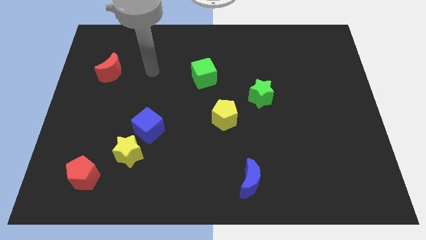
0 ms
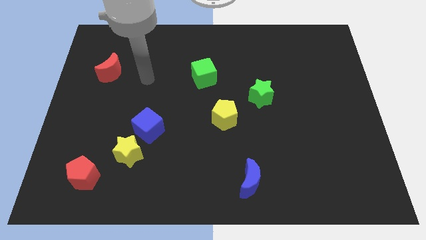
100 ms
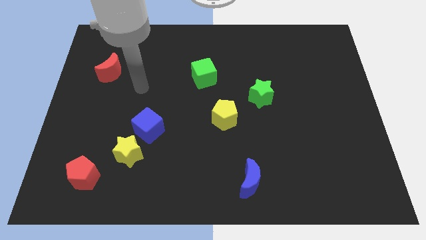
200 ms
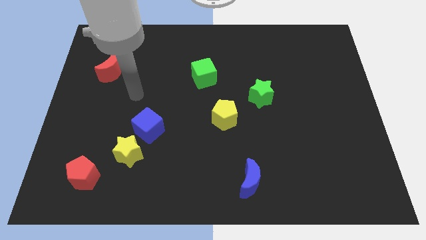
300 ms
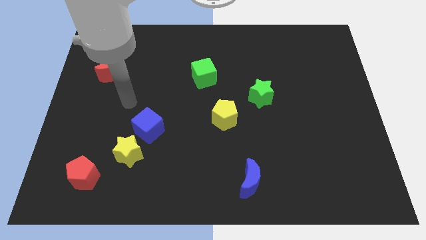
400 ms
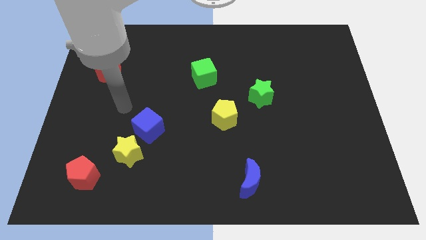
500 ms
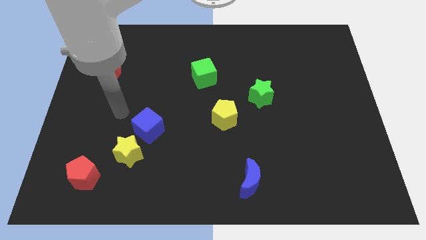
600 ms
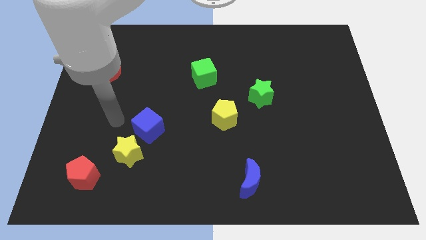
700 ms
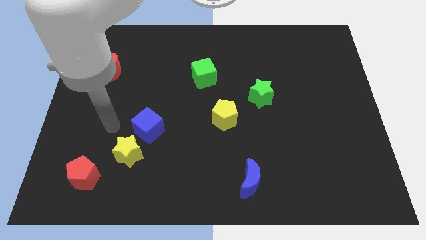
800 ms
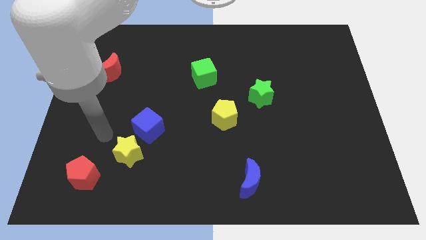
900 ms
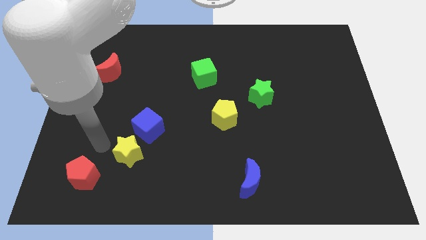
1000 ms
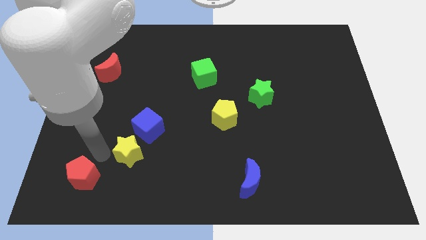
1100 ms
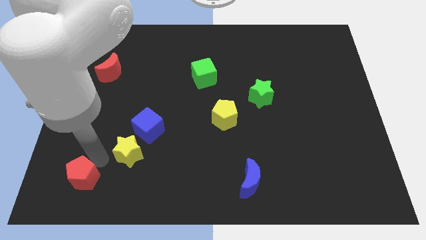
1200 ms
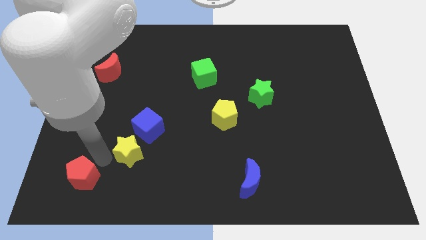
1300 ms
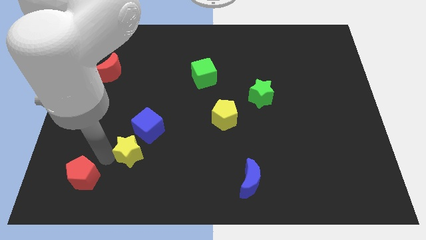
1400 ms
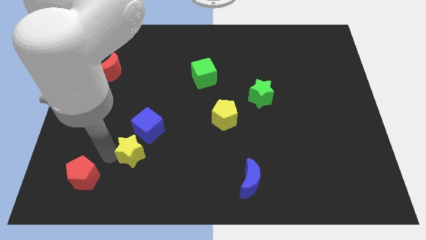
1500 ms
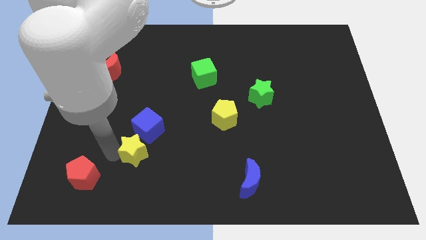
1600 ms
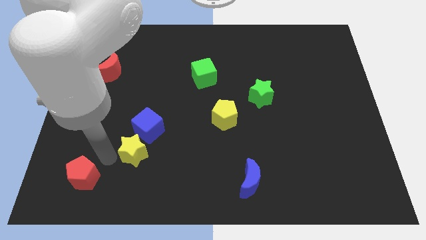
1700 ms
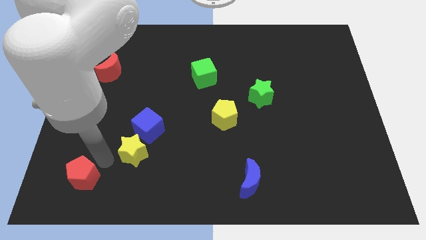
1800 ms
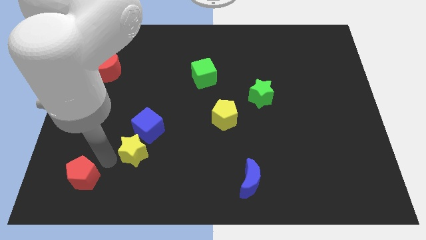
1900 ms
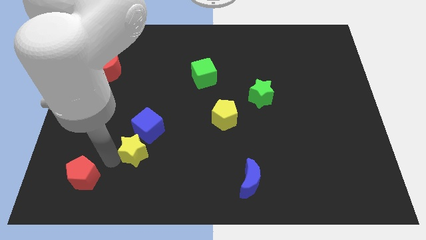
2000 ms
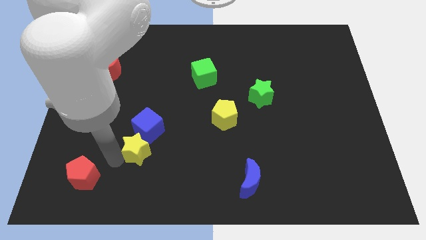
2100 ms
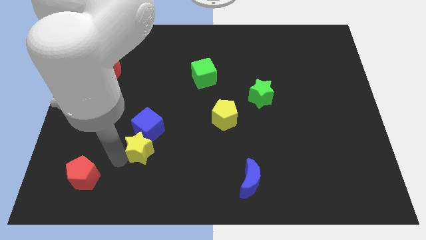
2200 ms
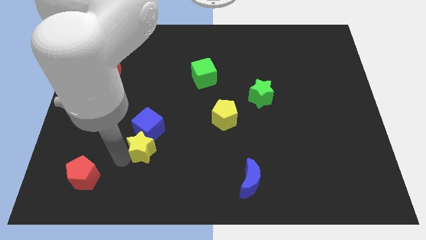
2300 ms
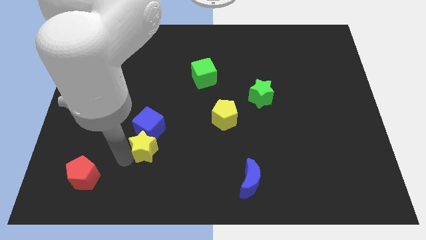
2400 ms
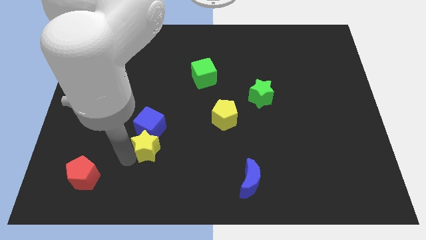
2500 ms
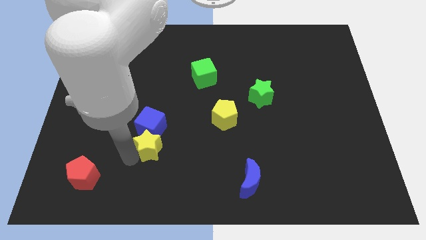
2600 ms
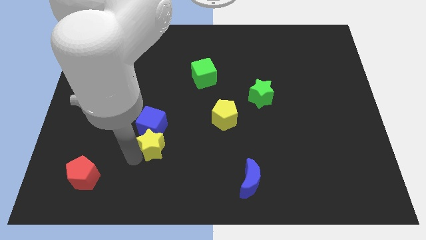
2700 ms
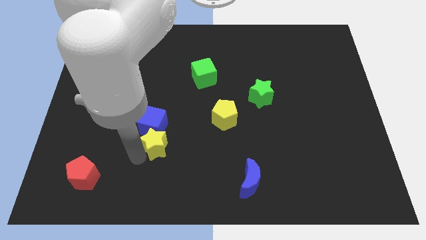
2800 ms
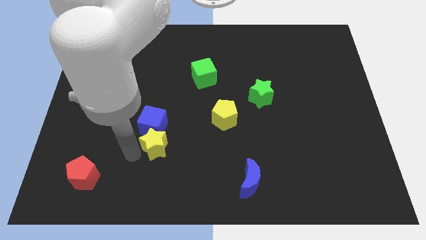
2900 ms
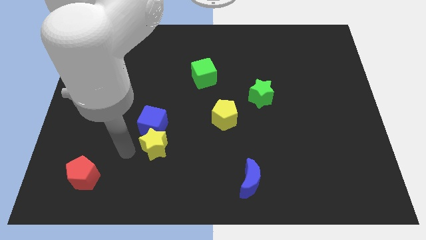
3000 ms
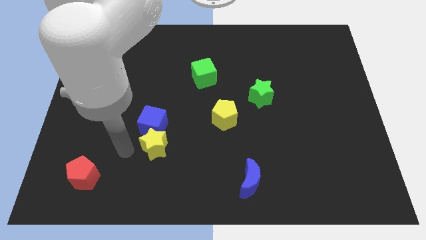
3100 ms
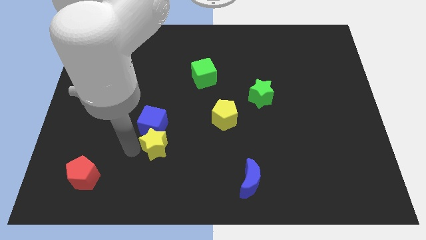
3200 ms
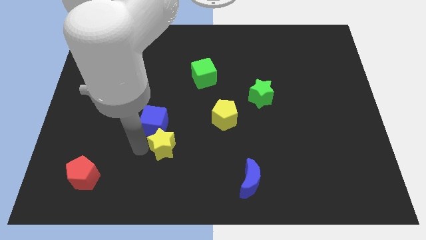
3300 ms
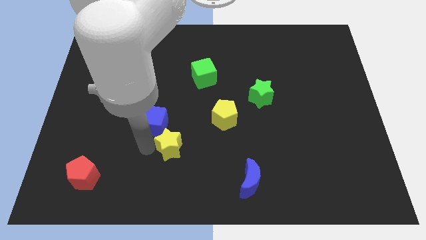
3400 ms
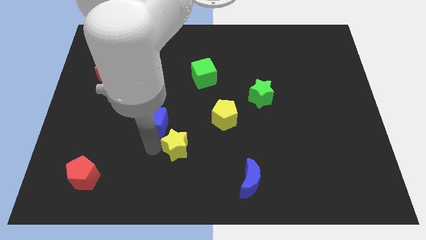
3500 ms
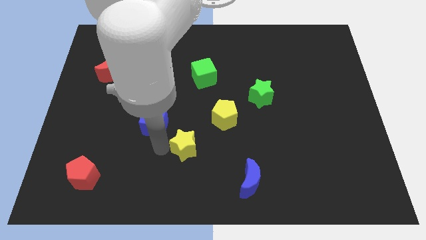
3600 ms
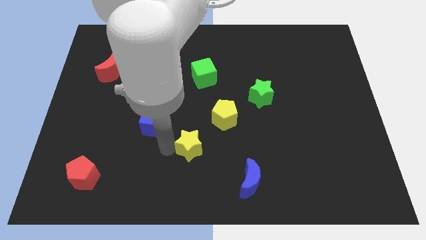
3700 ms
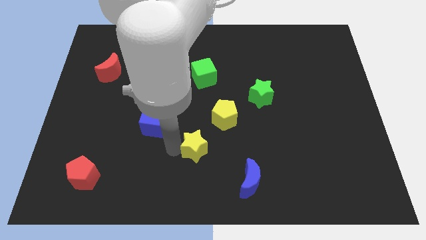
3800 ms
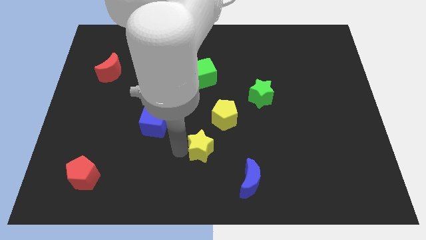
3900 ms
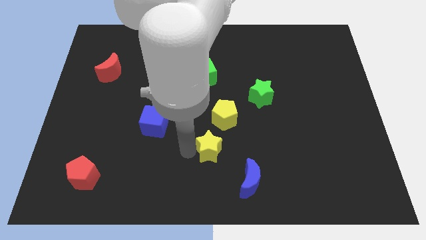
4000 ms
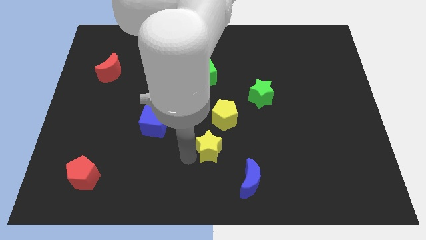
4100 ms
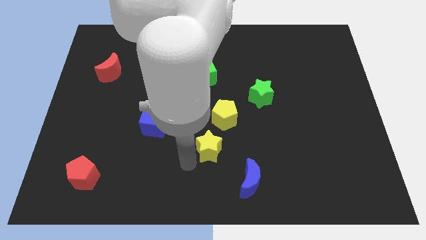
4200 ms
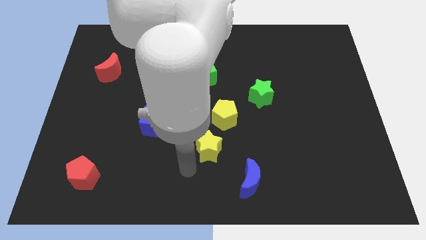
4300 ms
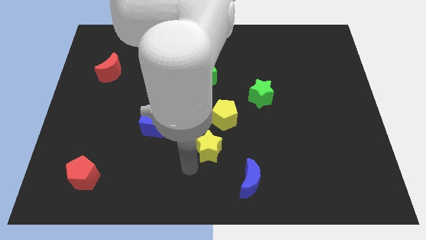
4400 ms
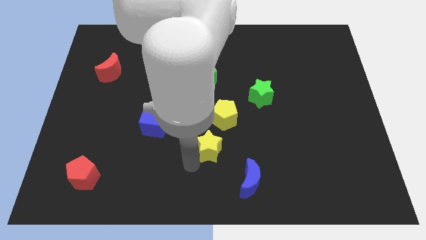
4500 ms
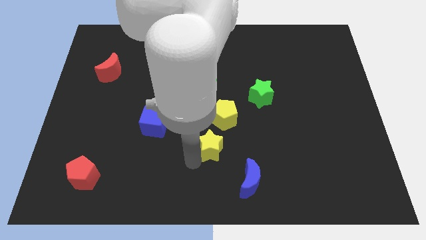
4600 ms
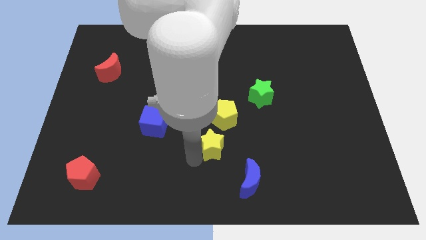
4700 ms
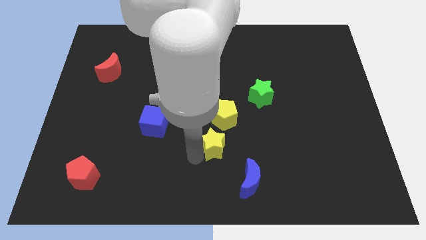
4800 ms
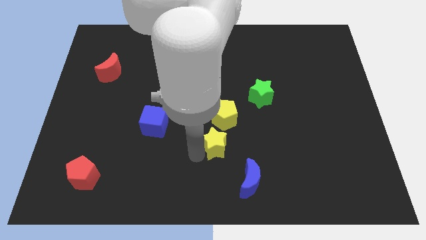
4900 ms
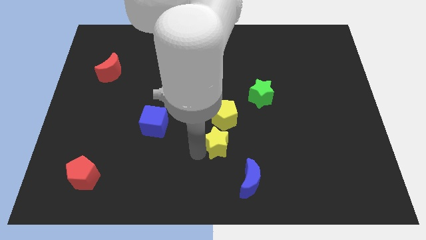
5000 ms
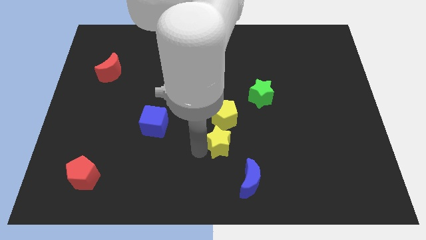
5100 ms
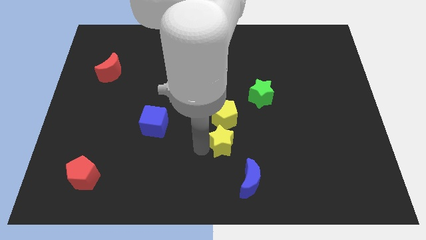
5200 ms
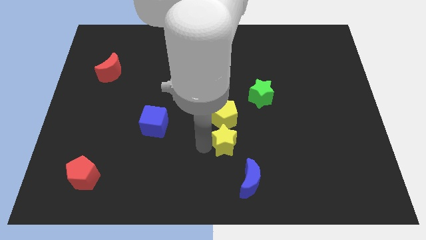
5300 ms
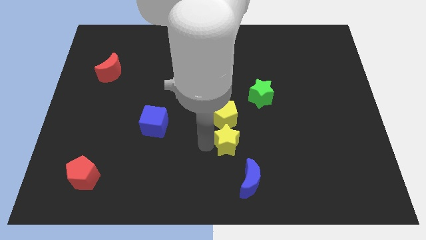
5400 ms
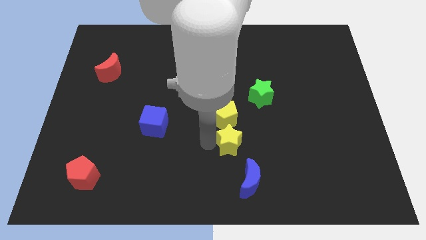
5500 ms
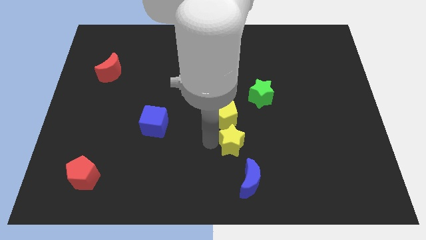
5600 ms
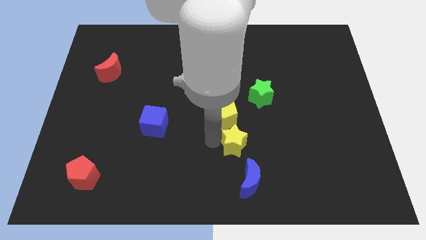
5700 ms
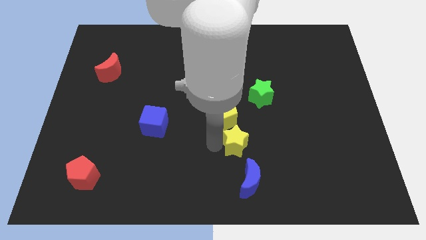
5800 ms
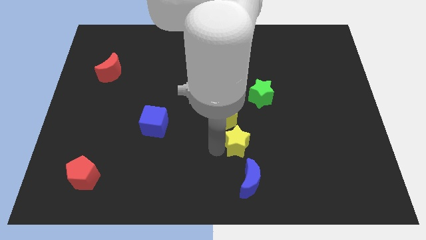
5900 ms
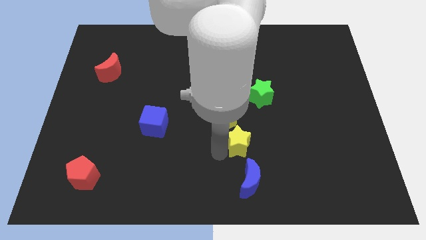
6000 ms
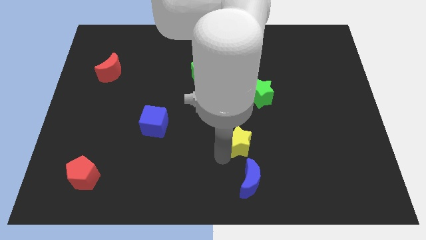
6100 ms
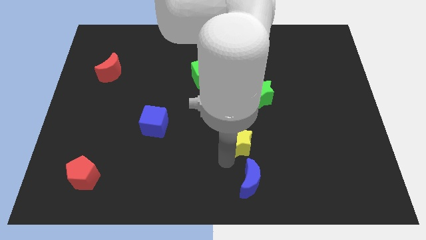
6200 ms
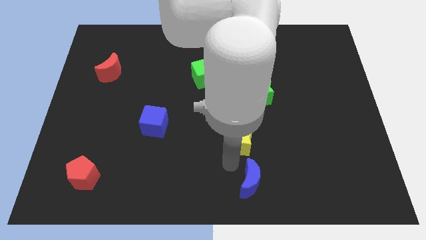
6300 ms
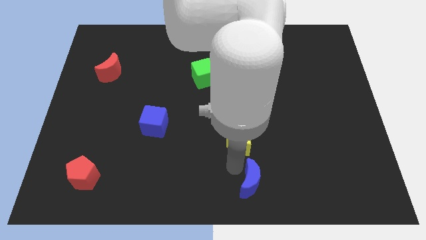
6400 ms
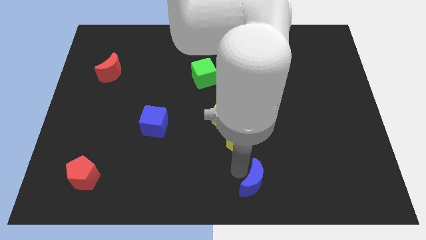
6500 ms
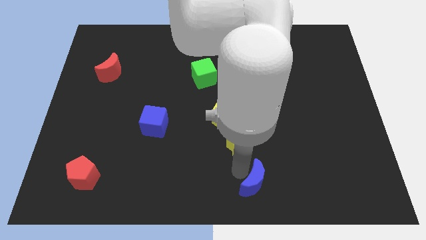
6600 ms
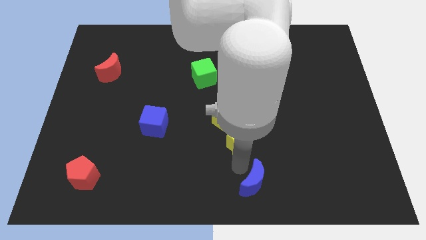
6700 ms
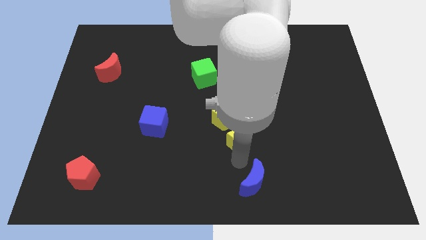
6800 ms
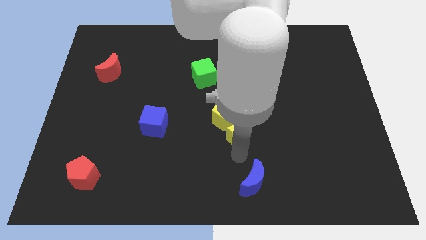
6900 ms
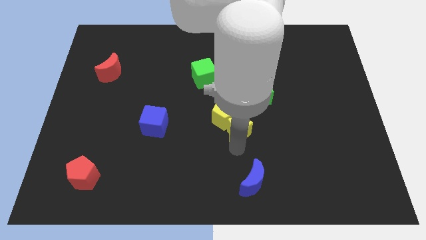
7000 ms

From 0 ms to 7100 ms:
slide the yellow star right of the yellow pentagon

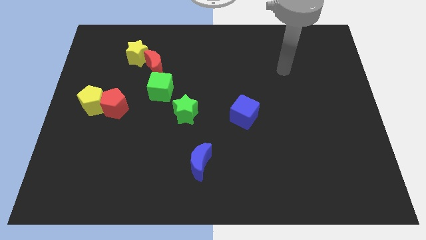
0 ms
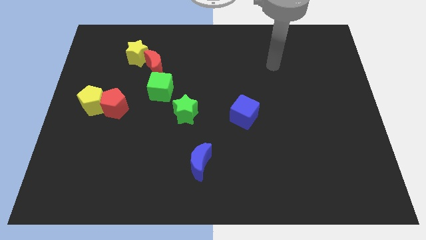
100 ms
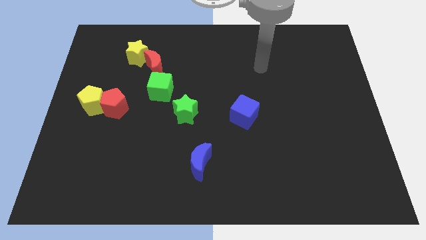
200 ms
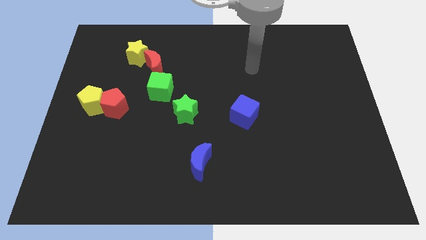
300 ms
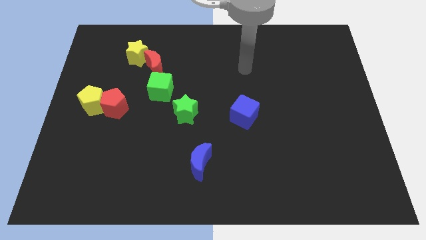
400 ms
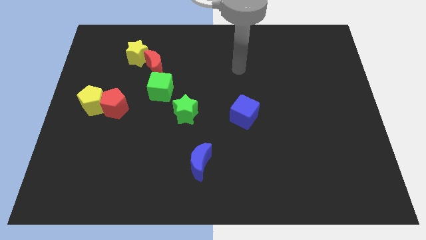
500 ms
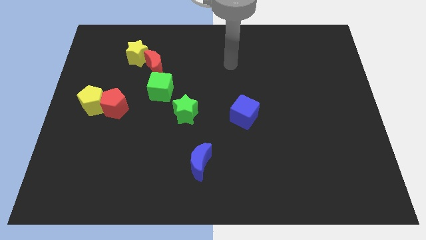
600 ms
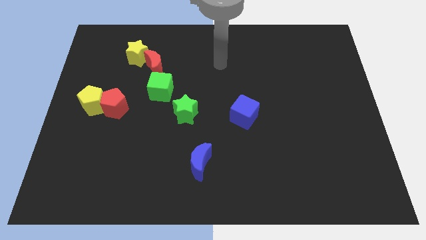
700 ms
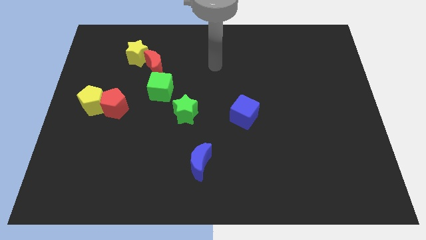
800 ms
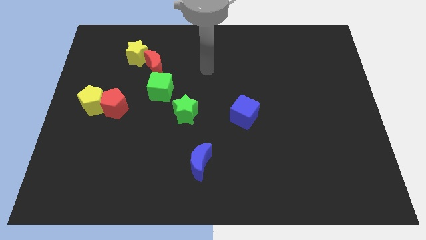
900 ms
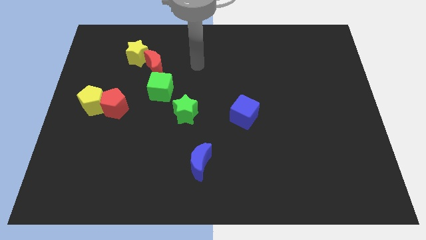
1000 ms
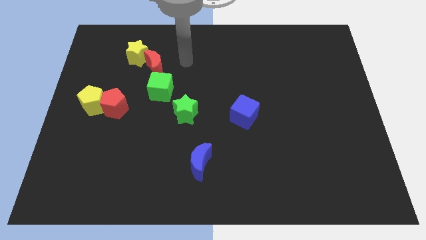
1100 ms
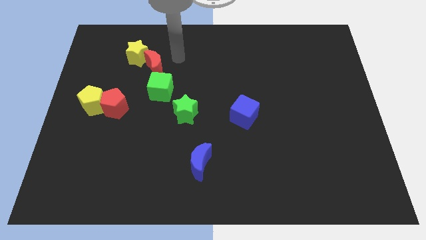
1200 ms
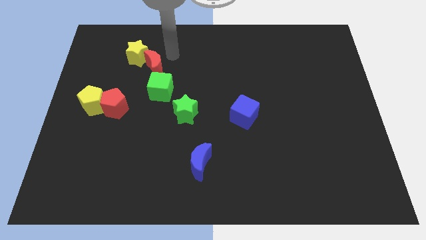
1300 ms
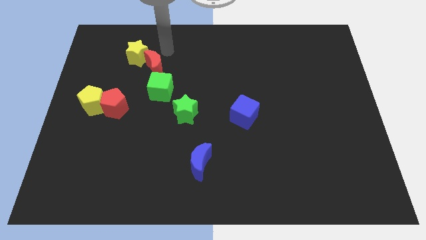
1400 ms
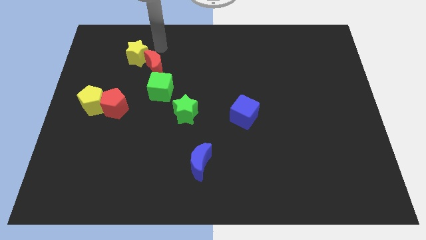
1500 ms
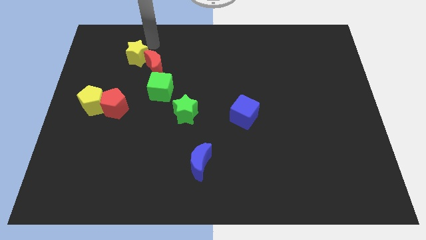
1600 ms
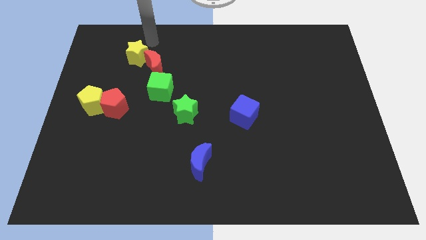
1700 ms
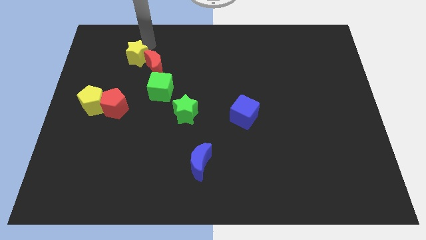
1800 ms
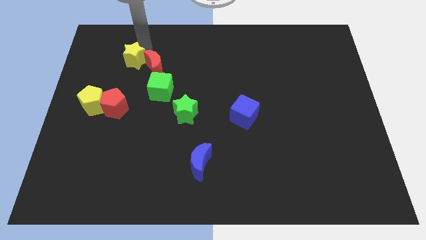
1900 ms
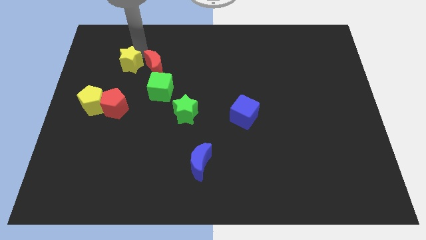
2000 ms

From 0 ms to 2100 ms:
slide the yellow star to the top side of the red pentagon
